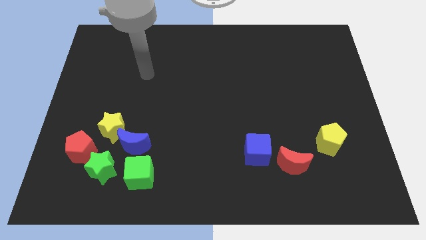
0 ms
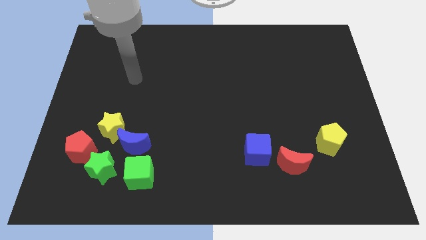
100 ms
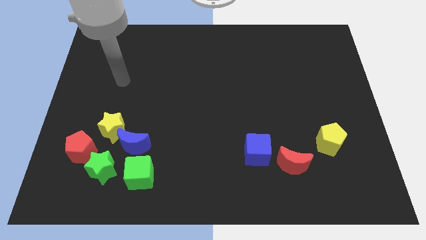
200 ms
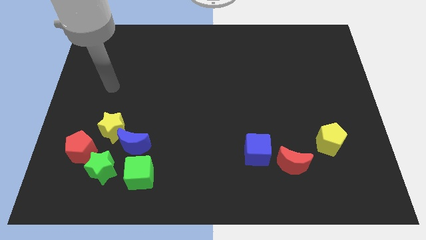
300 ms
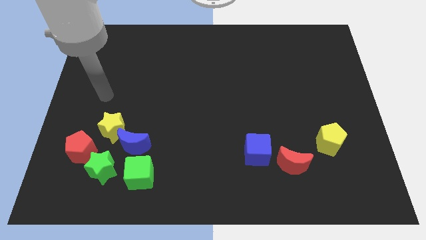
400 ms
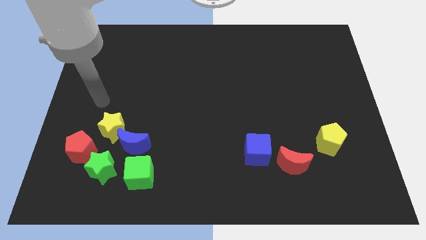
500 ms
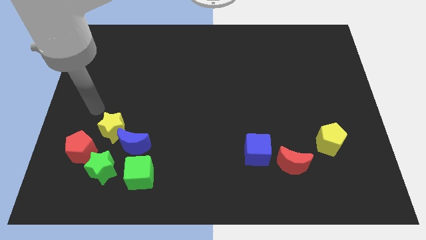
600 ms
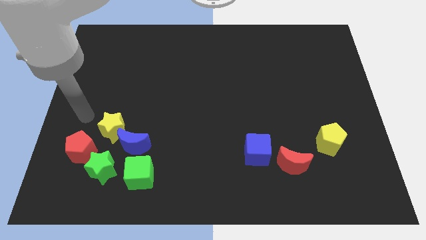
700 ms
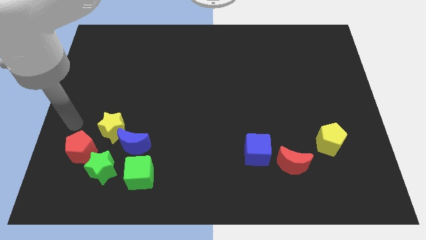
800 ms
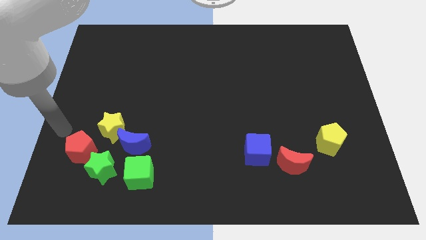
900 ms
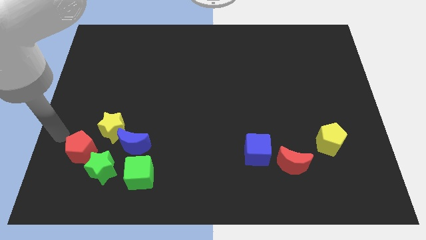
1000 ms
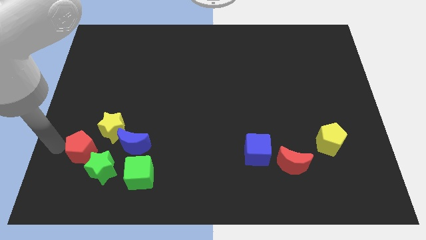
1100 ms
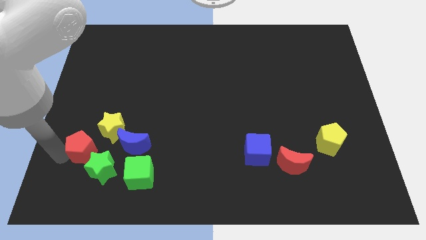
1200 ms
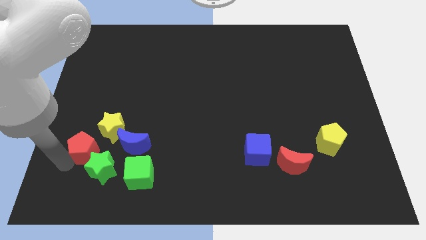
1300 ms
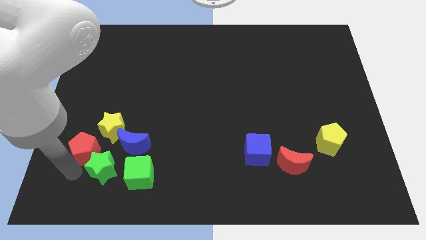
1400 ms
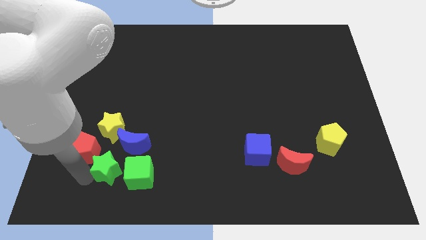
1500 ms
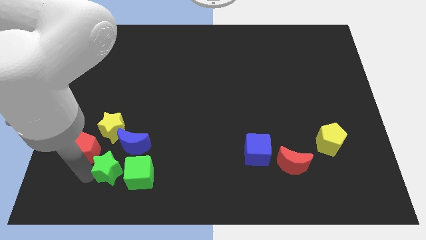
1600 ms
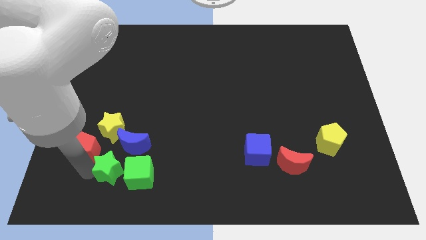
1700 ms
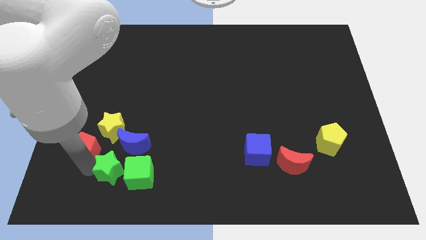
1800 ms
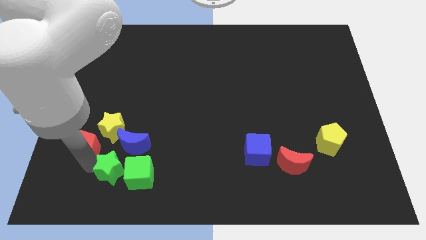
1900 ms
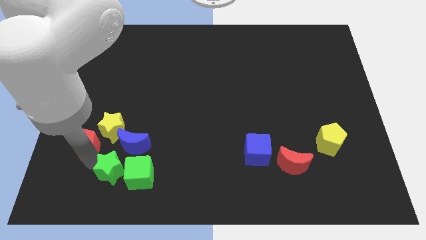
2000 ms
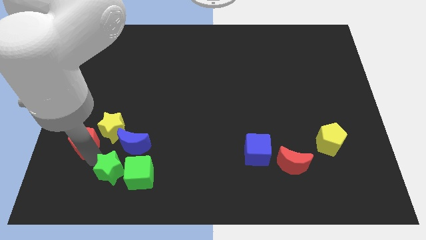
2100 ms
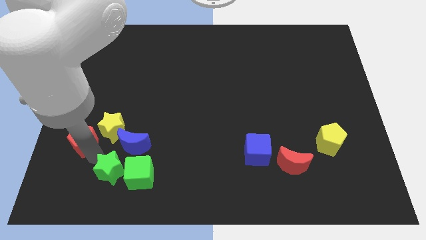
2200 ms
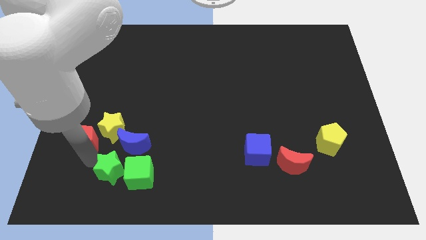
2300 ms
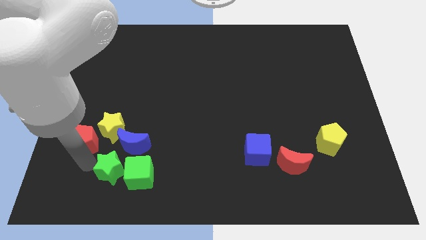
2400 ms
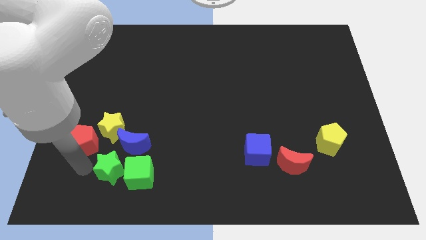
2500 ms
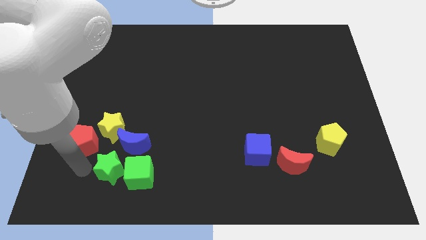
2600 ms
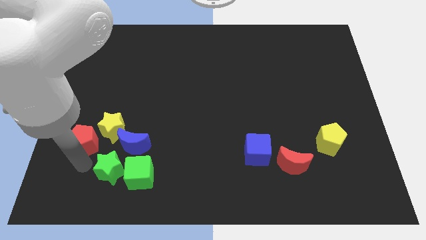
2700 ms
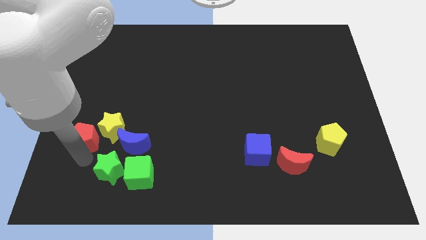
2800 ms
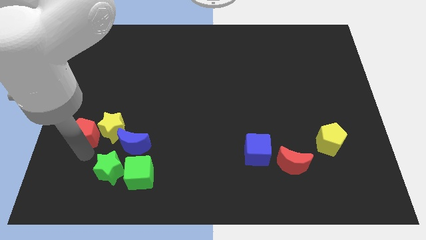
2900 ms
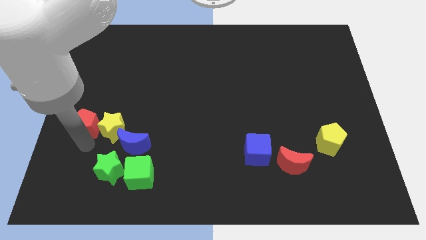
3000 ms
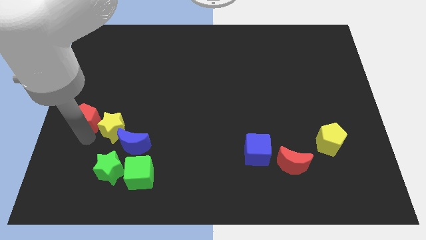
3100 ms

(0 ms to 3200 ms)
move the red pentagon somewhat upwards

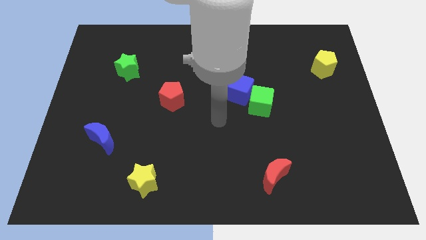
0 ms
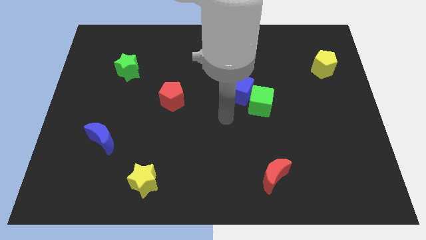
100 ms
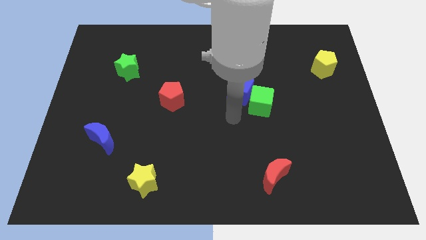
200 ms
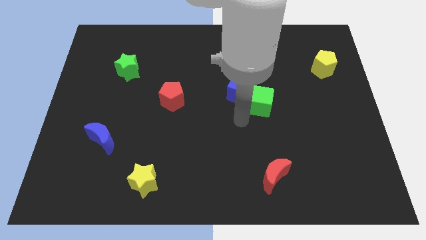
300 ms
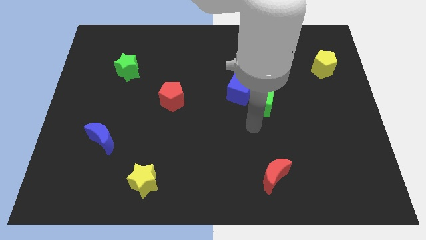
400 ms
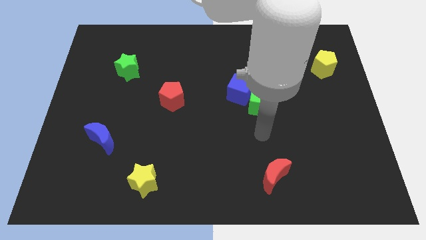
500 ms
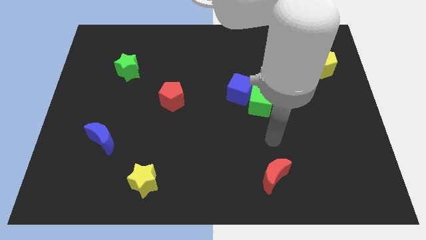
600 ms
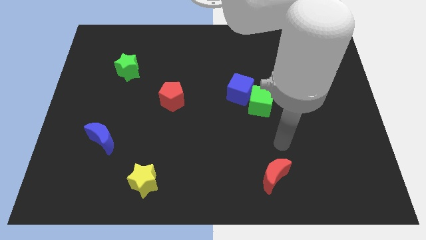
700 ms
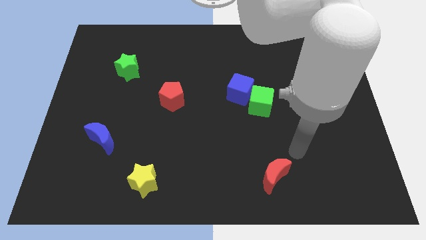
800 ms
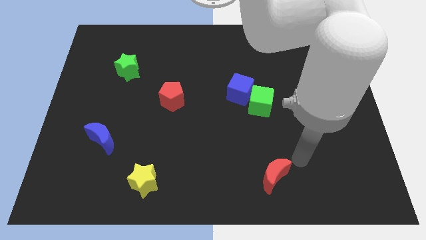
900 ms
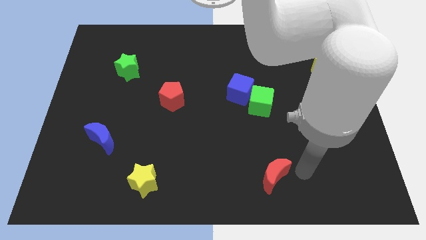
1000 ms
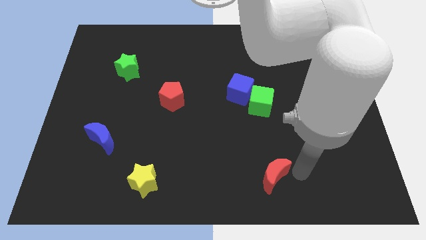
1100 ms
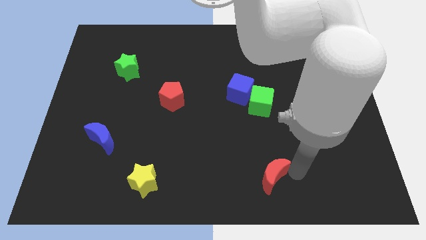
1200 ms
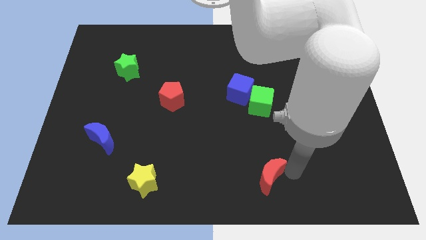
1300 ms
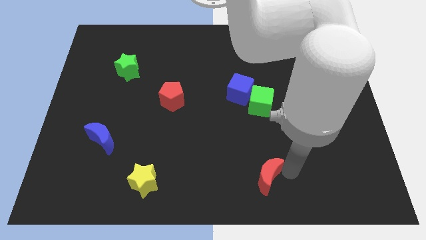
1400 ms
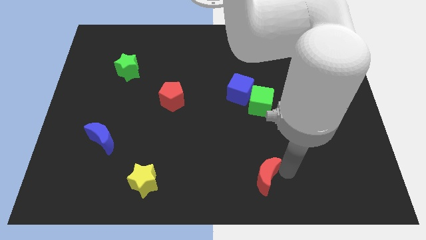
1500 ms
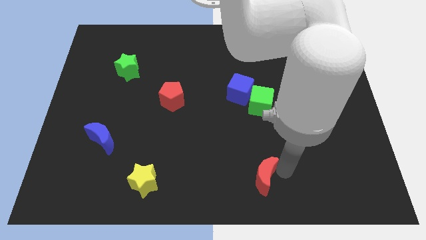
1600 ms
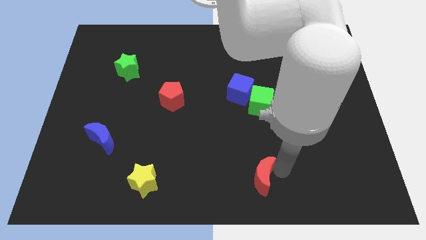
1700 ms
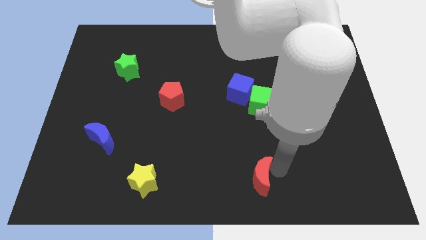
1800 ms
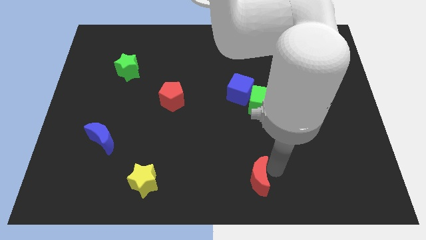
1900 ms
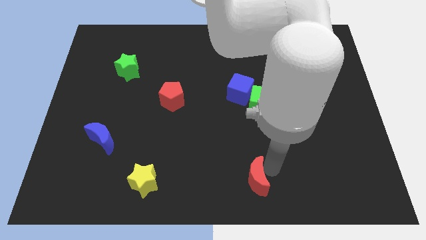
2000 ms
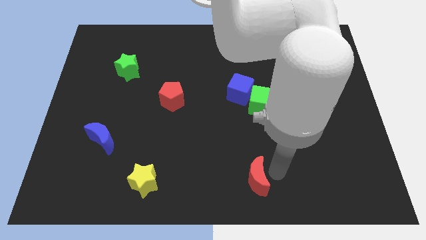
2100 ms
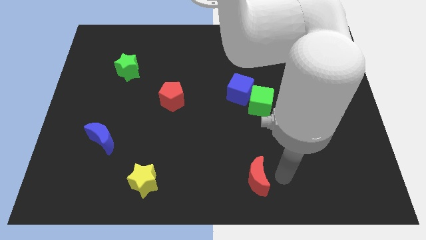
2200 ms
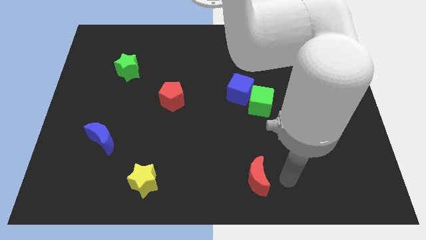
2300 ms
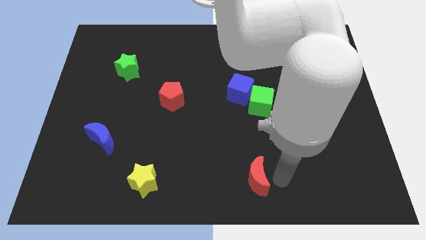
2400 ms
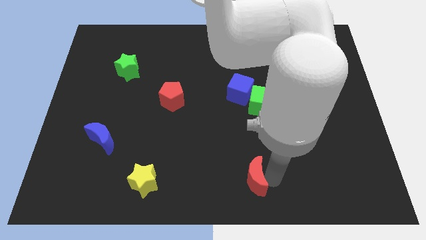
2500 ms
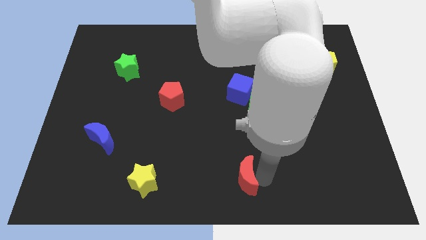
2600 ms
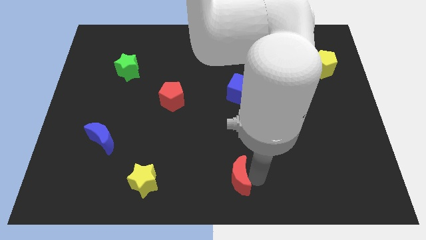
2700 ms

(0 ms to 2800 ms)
push the red moon left a bit

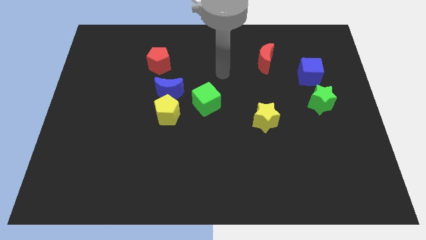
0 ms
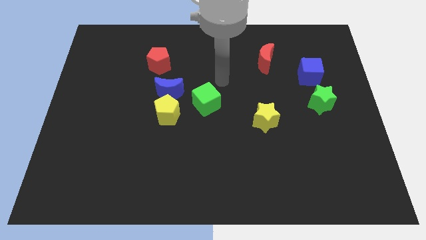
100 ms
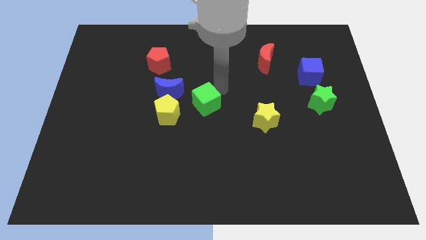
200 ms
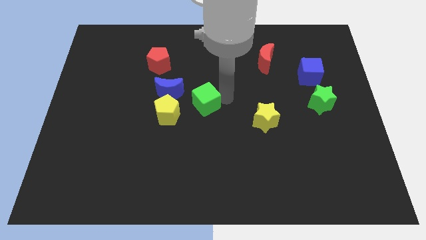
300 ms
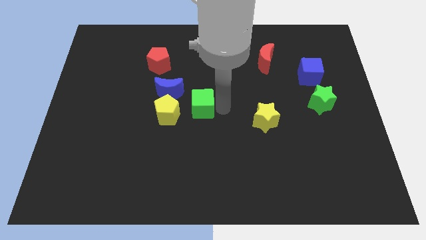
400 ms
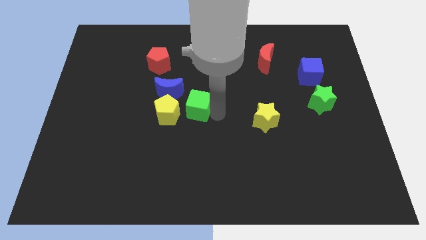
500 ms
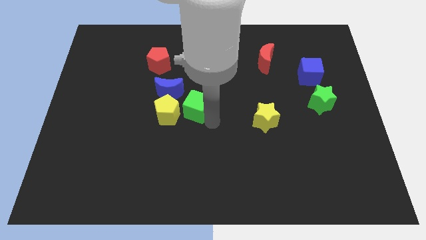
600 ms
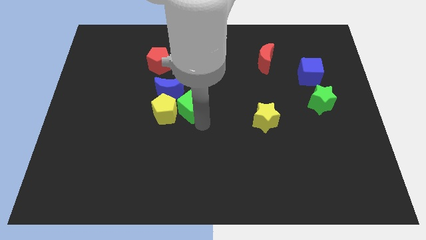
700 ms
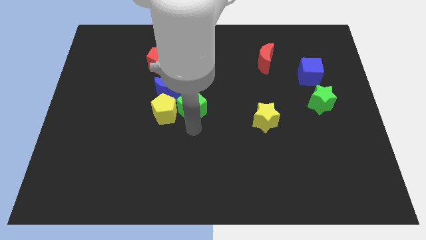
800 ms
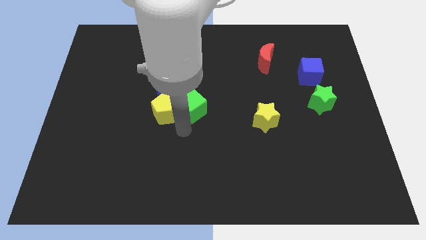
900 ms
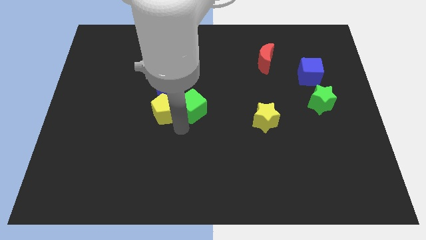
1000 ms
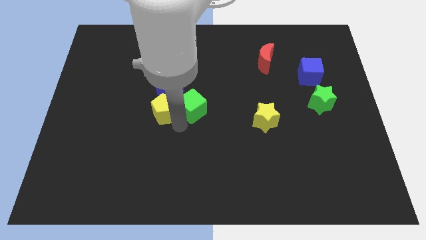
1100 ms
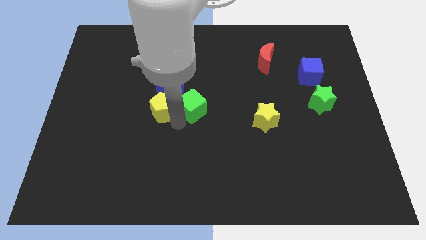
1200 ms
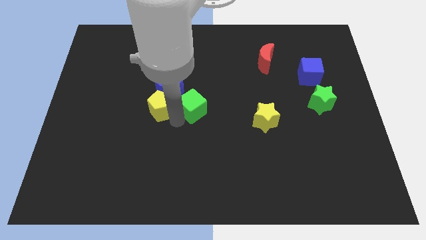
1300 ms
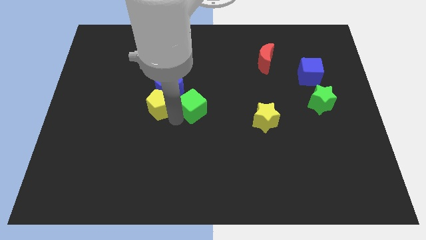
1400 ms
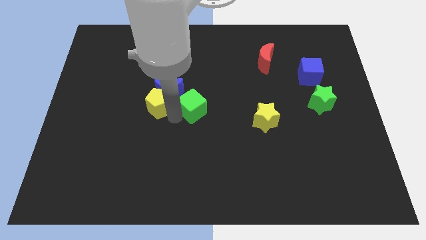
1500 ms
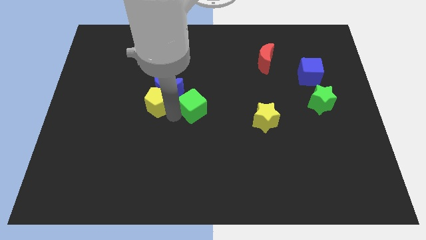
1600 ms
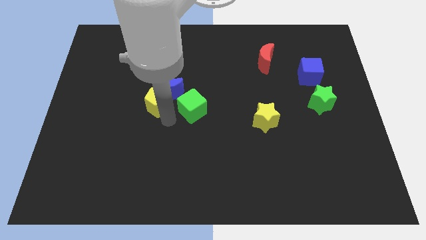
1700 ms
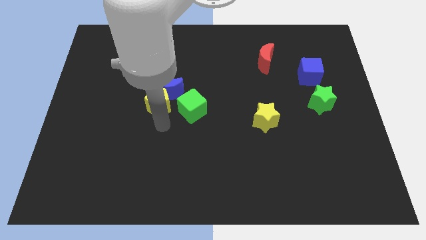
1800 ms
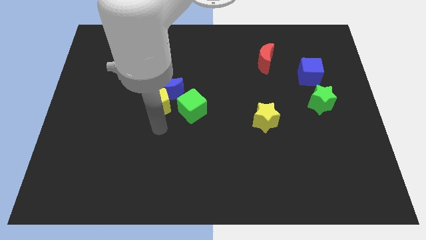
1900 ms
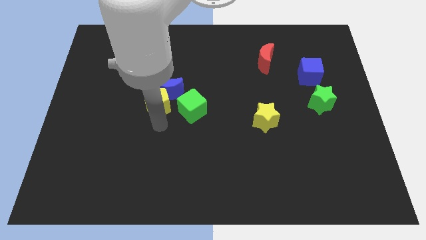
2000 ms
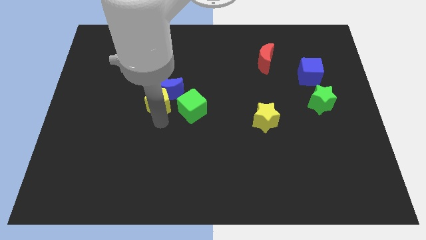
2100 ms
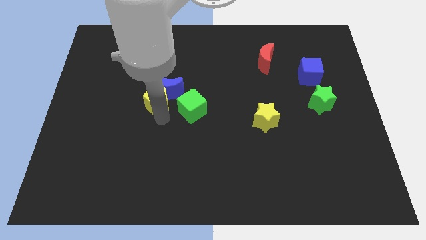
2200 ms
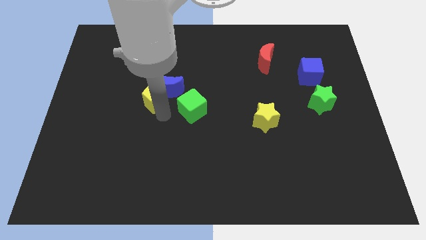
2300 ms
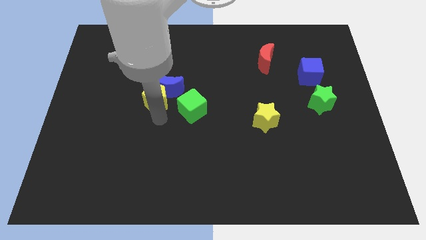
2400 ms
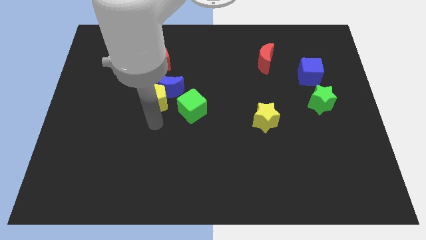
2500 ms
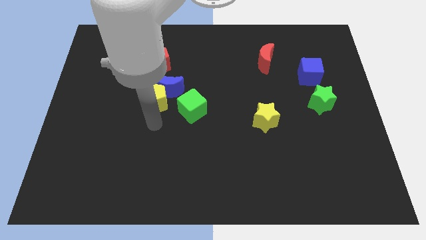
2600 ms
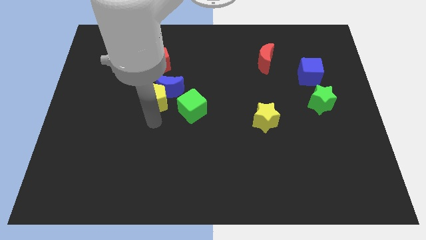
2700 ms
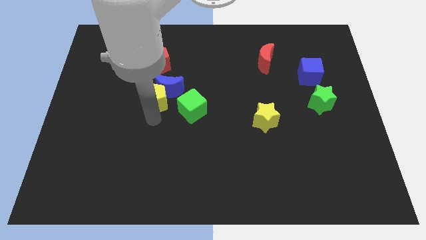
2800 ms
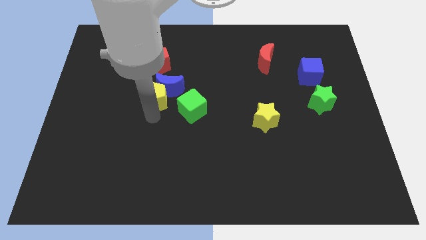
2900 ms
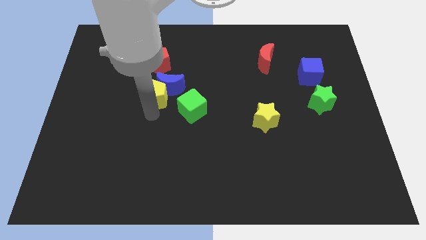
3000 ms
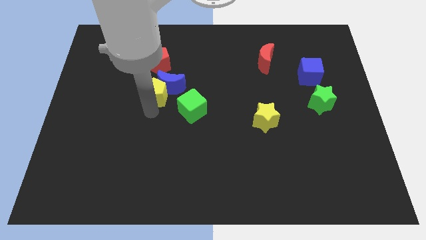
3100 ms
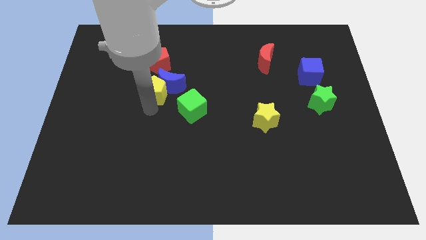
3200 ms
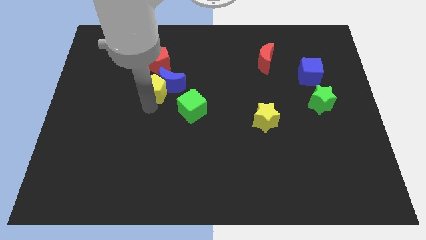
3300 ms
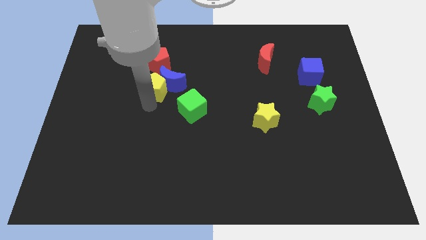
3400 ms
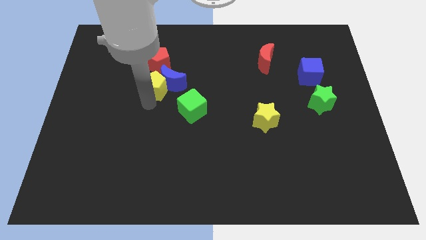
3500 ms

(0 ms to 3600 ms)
push the yellow pentagon slightly up
